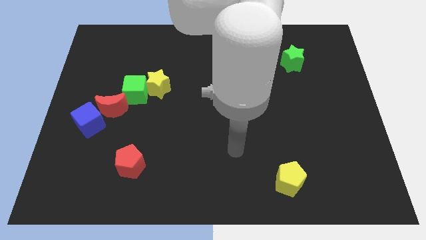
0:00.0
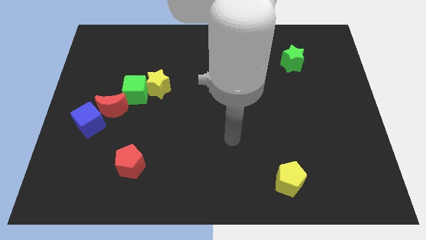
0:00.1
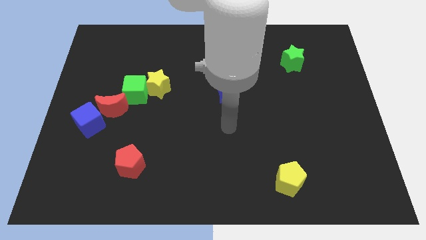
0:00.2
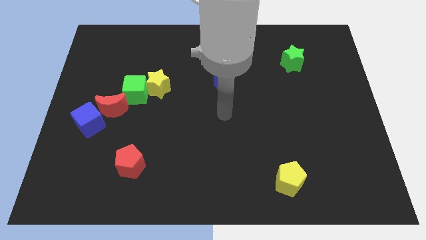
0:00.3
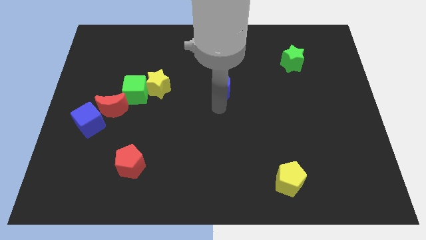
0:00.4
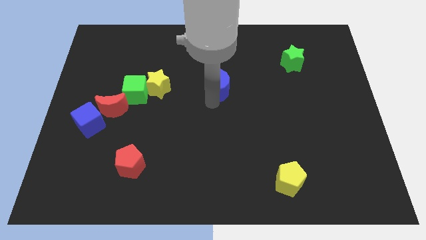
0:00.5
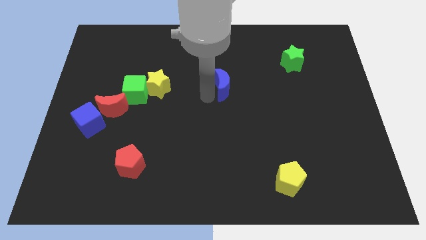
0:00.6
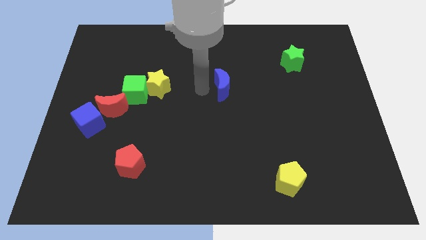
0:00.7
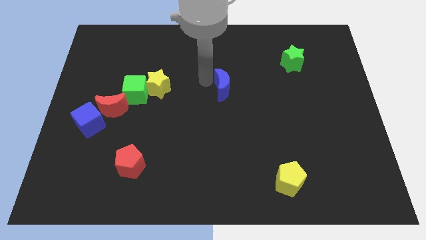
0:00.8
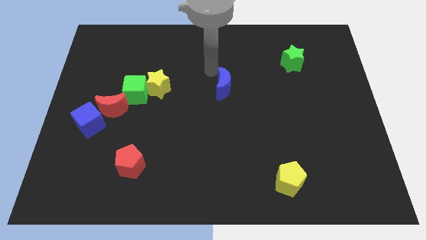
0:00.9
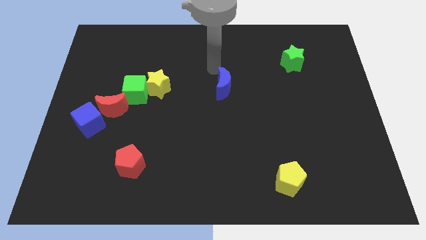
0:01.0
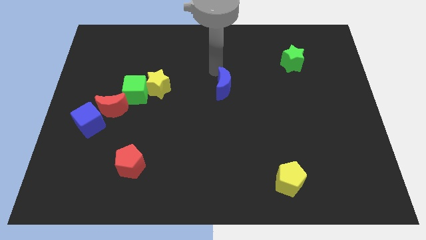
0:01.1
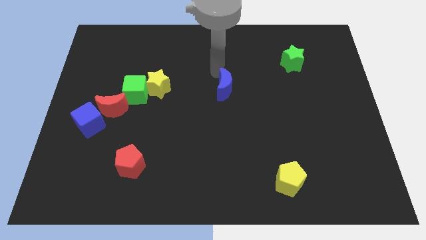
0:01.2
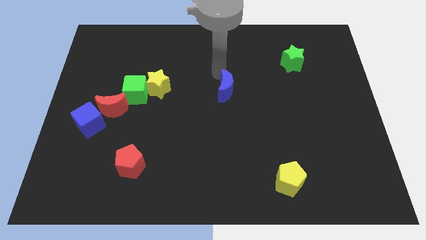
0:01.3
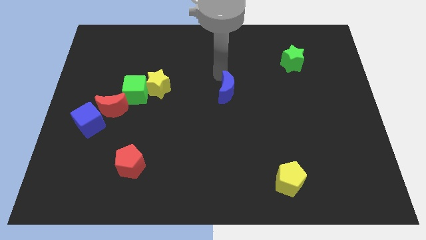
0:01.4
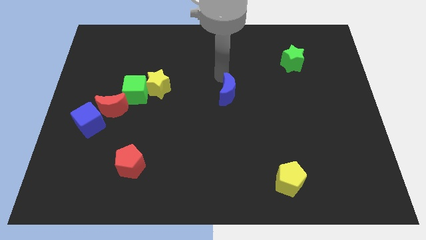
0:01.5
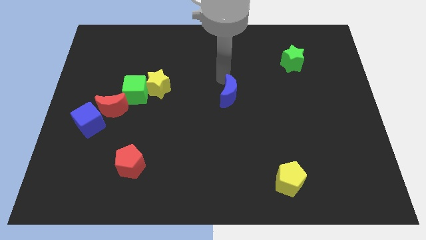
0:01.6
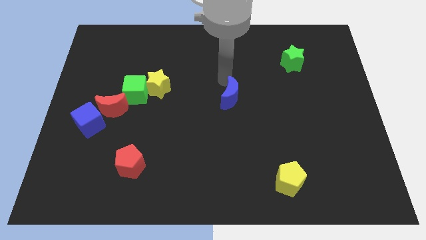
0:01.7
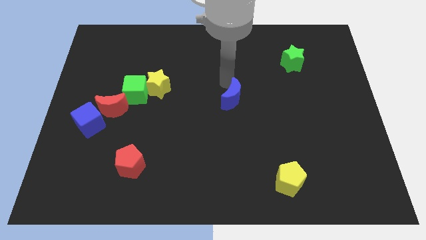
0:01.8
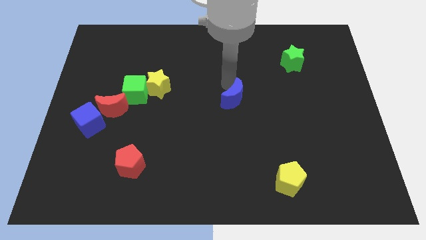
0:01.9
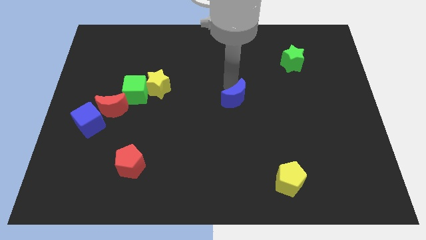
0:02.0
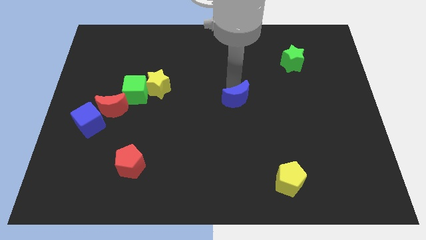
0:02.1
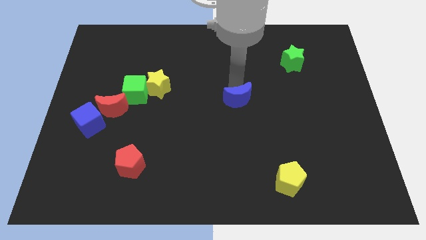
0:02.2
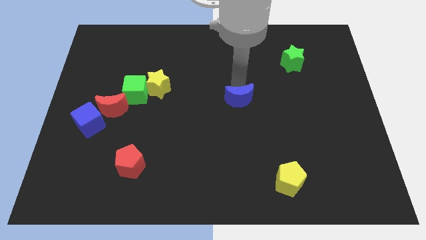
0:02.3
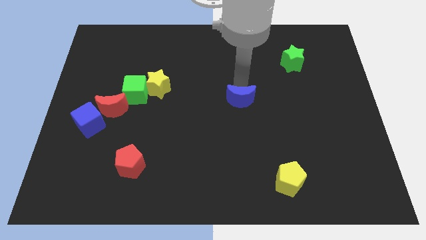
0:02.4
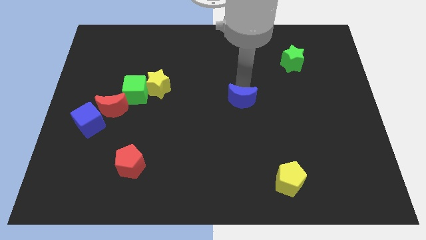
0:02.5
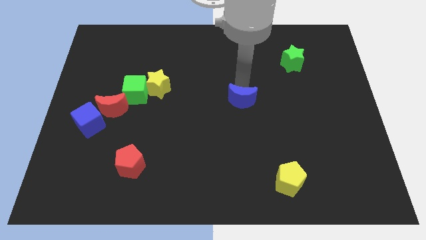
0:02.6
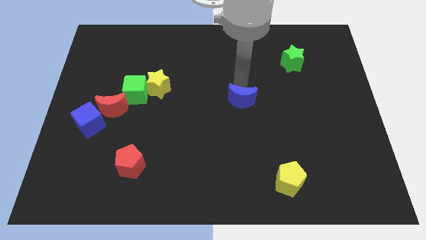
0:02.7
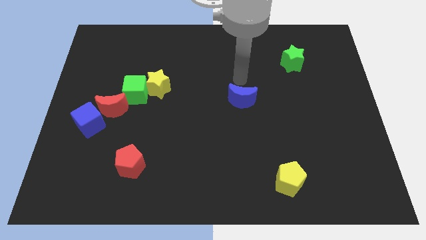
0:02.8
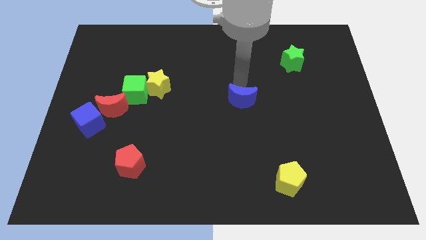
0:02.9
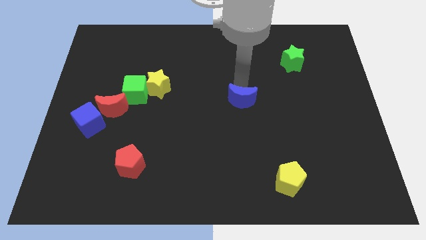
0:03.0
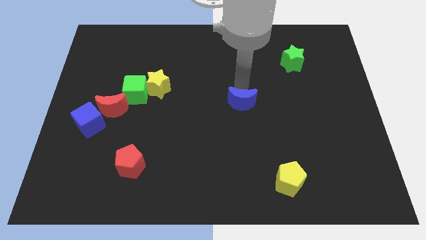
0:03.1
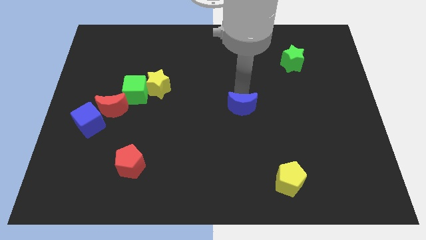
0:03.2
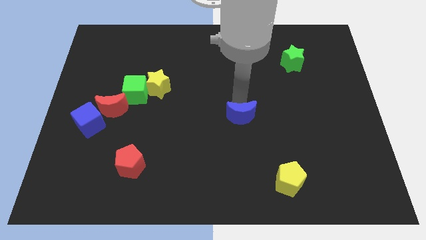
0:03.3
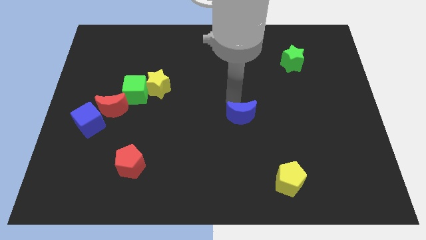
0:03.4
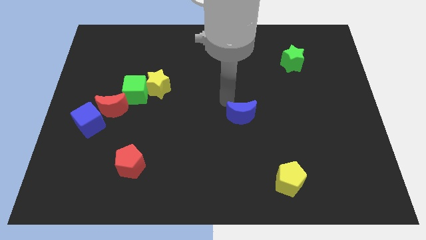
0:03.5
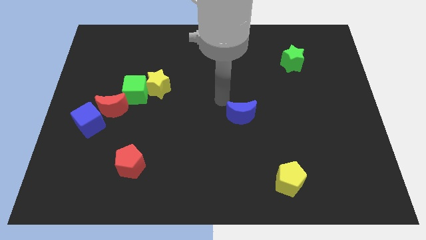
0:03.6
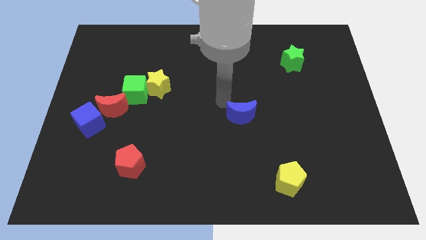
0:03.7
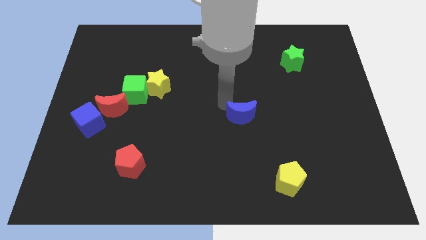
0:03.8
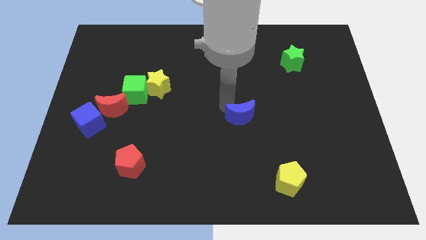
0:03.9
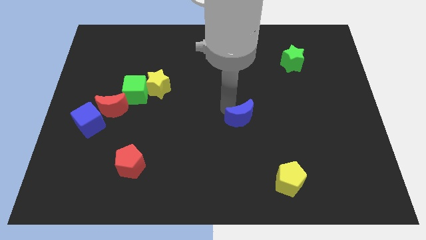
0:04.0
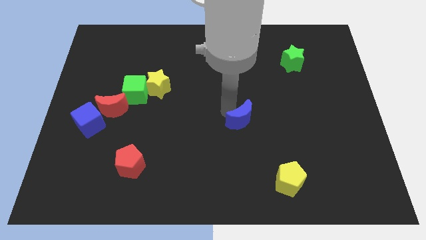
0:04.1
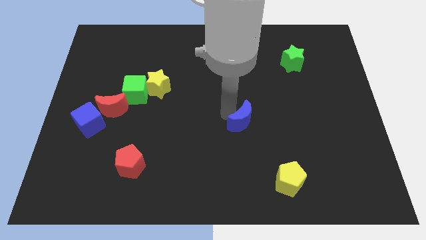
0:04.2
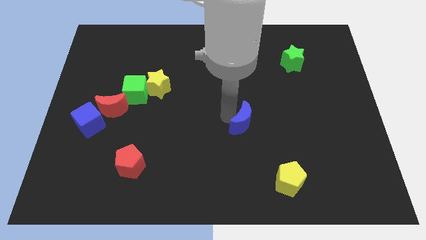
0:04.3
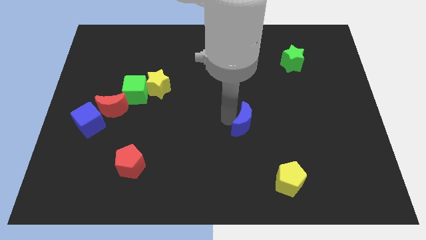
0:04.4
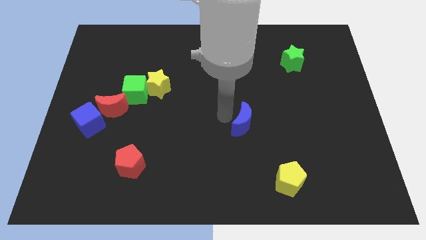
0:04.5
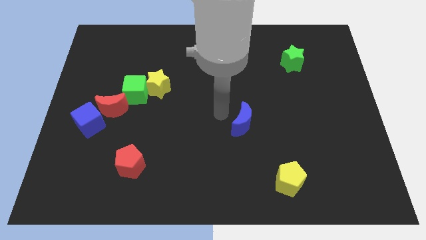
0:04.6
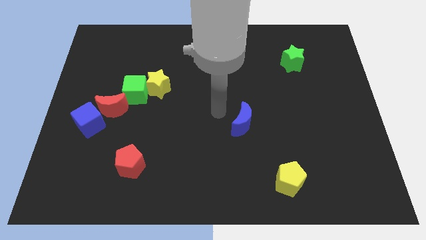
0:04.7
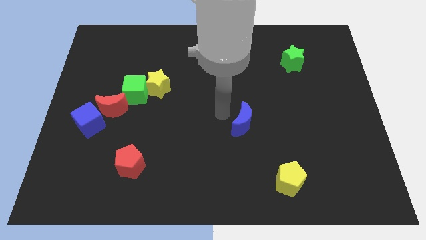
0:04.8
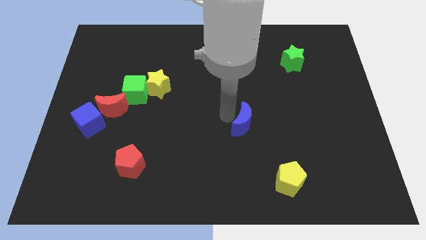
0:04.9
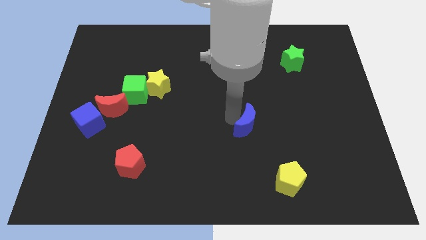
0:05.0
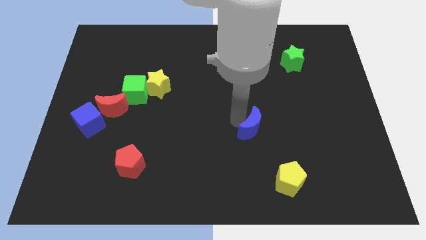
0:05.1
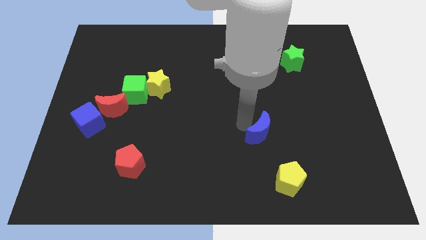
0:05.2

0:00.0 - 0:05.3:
slide the blue moon to the top side of the yellow pentagon

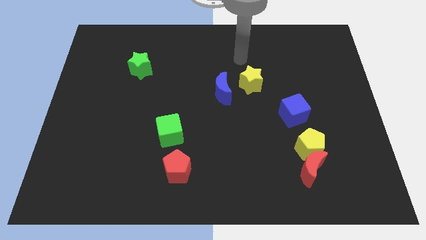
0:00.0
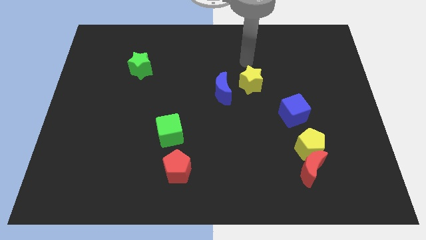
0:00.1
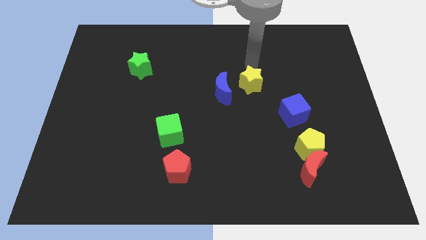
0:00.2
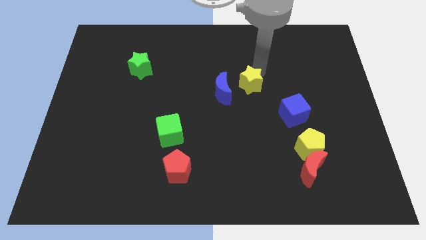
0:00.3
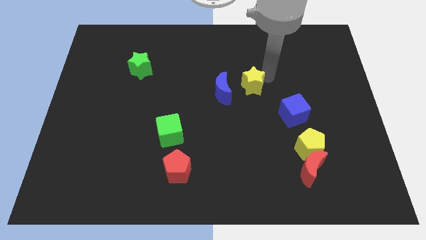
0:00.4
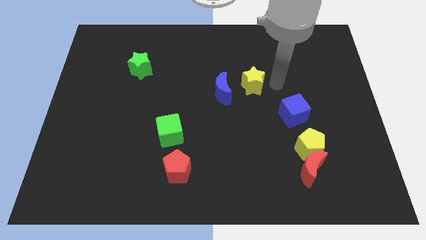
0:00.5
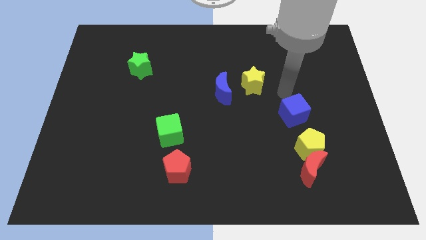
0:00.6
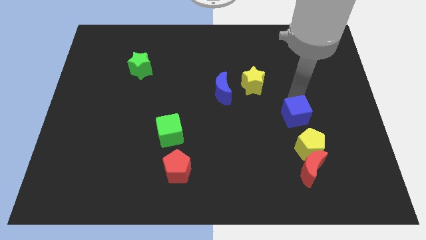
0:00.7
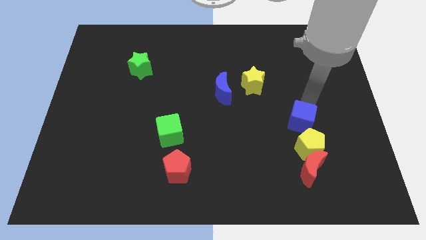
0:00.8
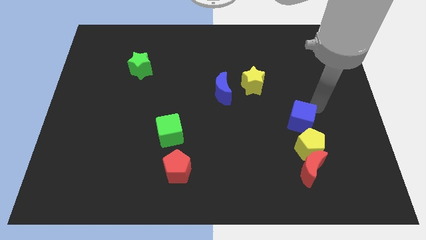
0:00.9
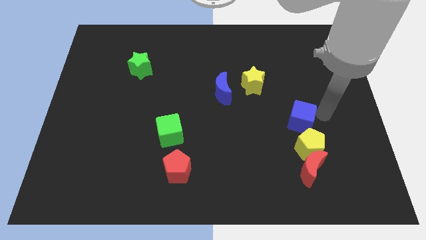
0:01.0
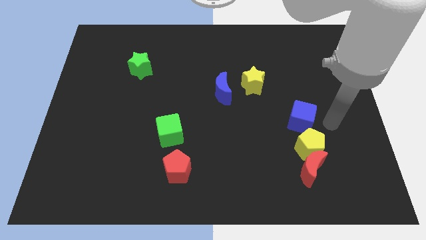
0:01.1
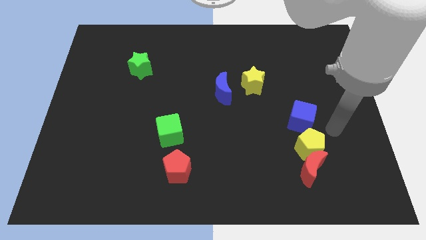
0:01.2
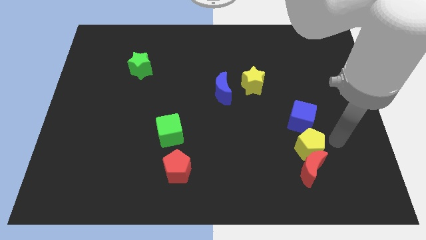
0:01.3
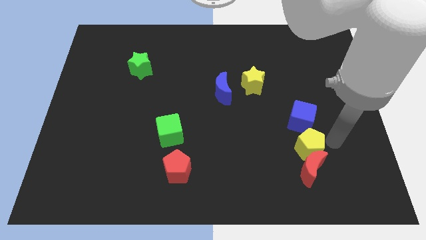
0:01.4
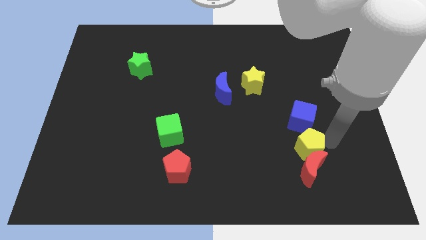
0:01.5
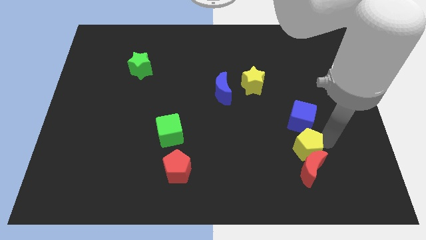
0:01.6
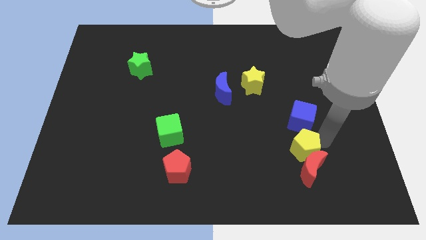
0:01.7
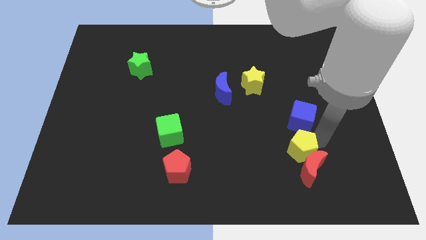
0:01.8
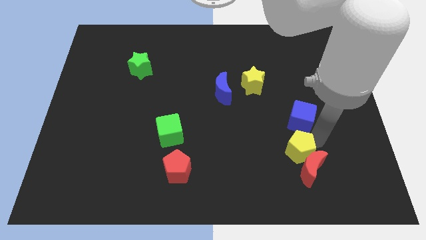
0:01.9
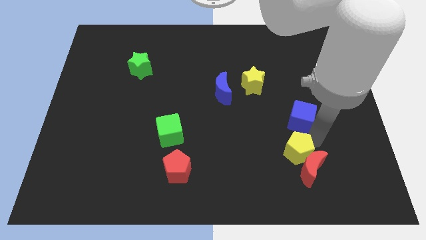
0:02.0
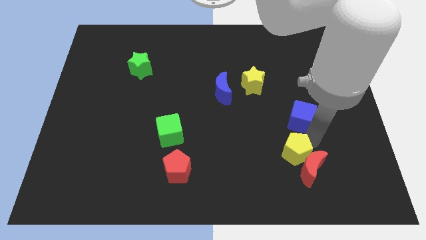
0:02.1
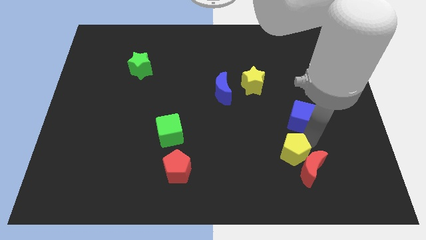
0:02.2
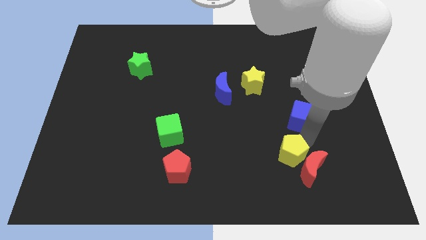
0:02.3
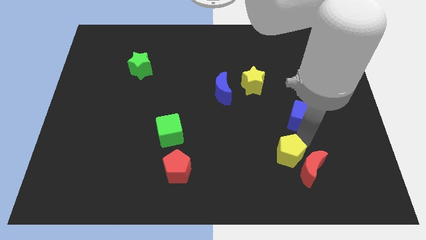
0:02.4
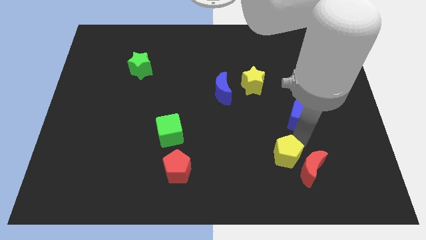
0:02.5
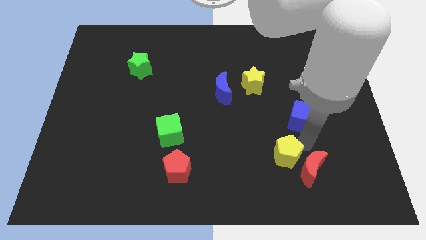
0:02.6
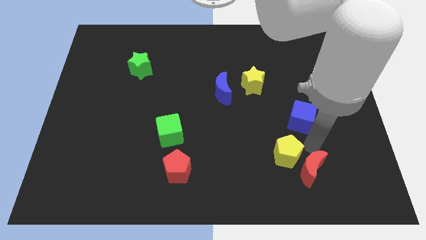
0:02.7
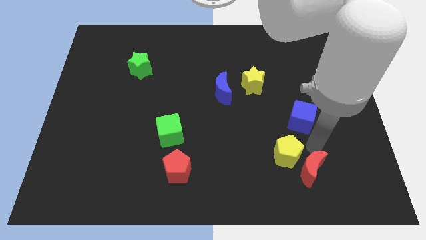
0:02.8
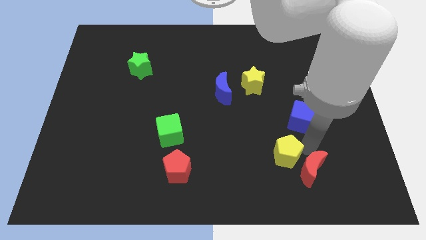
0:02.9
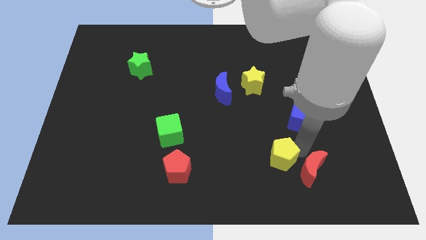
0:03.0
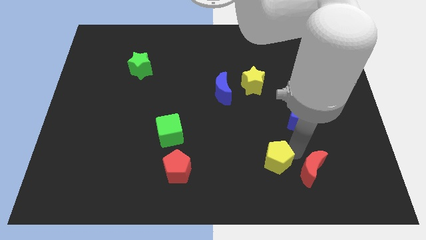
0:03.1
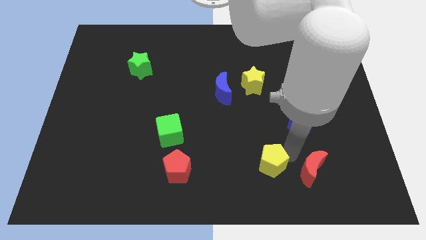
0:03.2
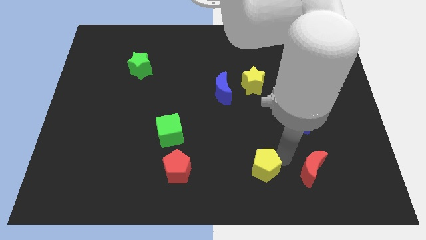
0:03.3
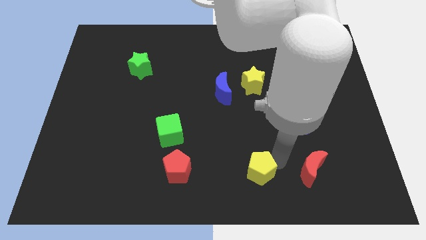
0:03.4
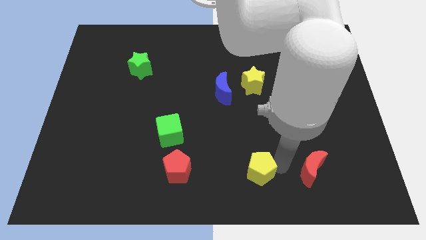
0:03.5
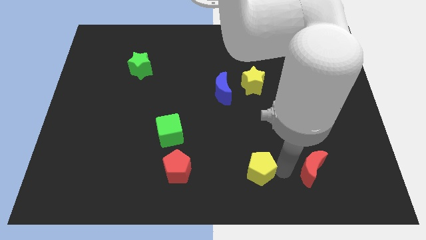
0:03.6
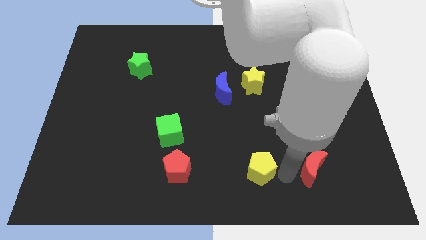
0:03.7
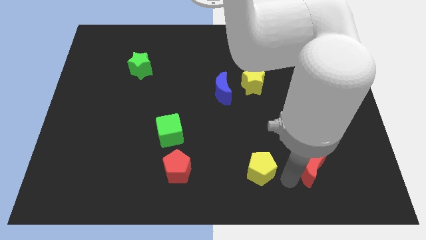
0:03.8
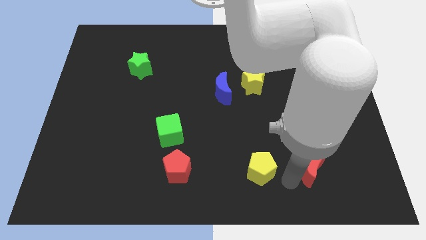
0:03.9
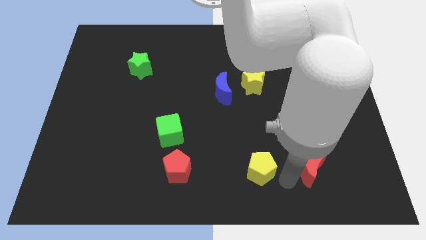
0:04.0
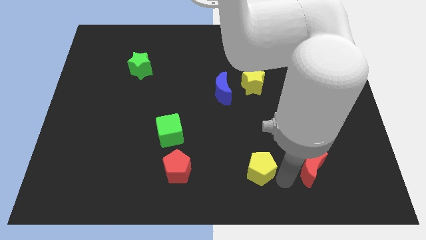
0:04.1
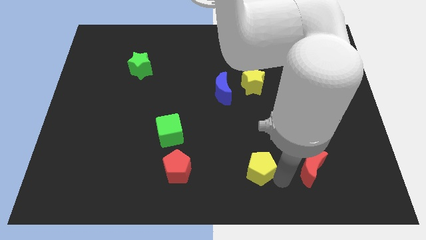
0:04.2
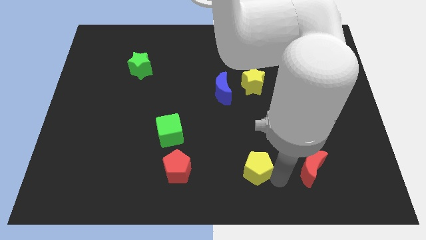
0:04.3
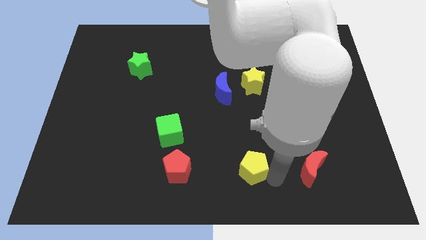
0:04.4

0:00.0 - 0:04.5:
put the yellow pentagon right of the red pentagon
